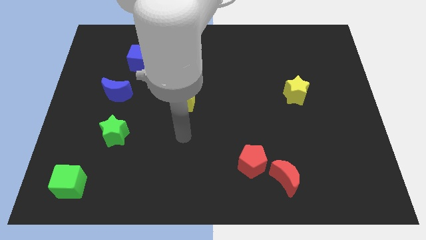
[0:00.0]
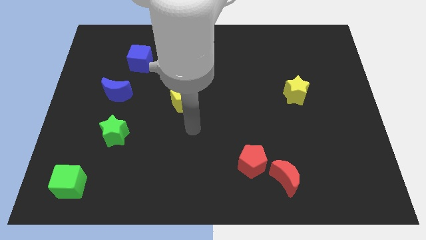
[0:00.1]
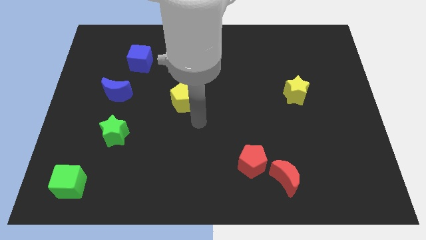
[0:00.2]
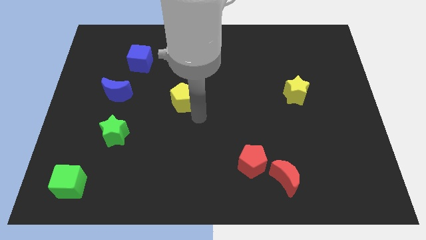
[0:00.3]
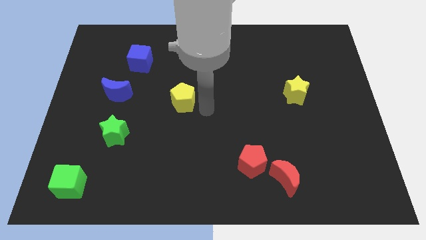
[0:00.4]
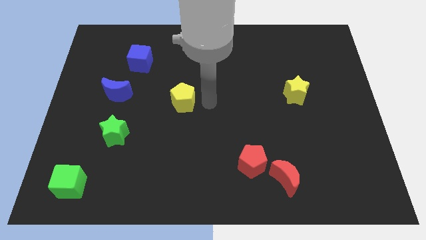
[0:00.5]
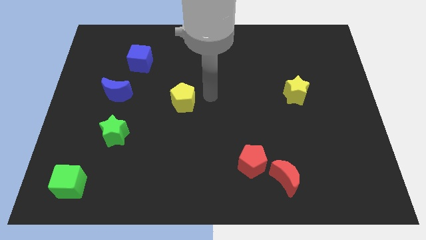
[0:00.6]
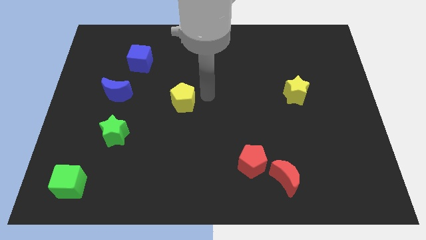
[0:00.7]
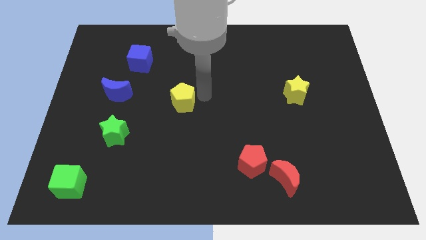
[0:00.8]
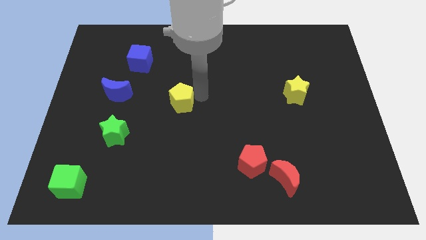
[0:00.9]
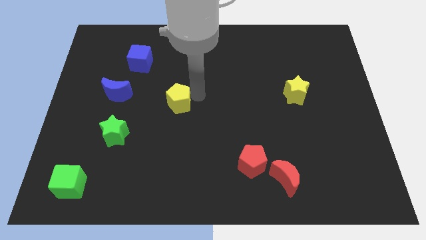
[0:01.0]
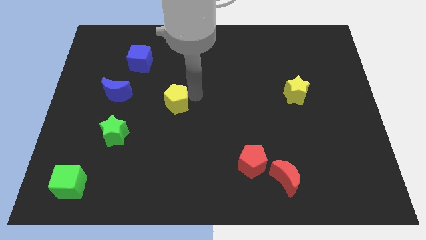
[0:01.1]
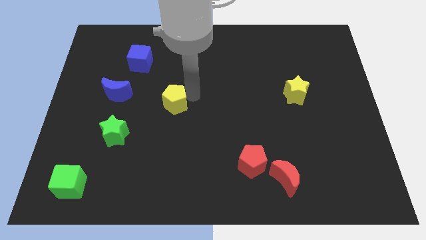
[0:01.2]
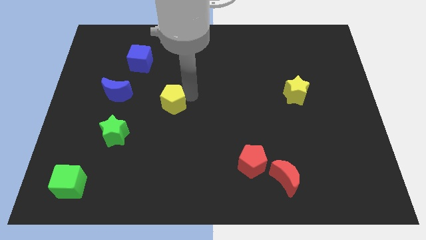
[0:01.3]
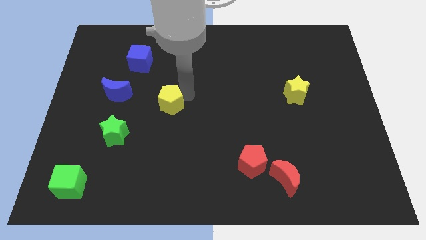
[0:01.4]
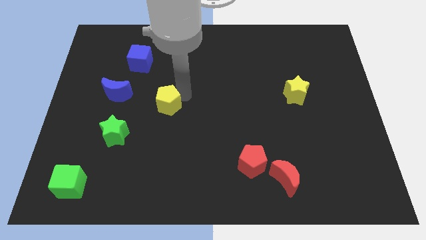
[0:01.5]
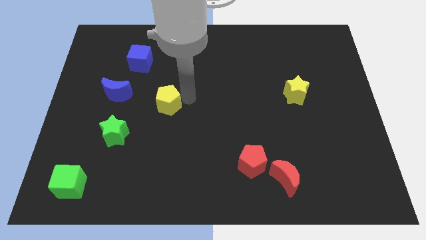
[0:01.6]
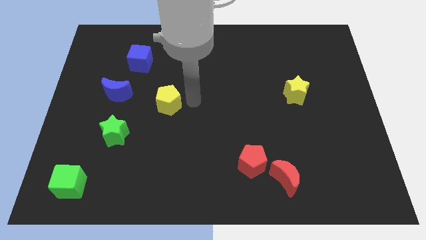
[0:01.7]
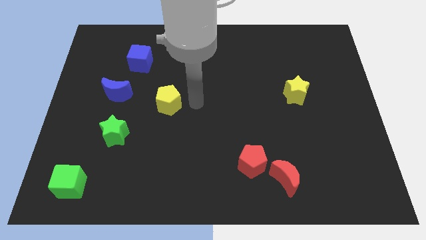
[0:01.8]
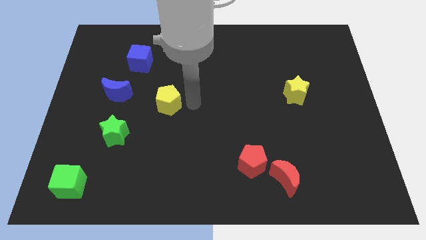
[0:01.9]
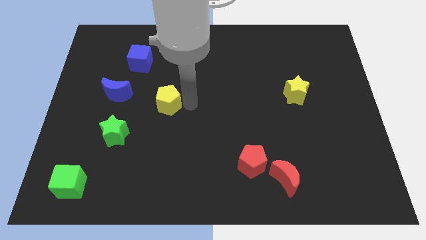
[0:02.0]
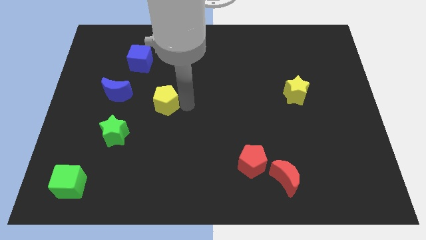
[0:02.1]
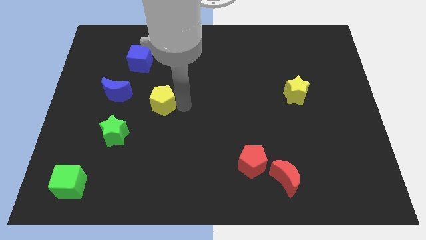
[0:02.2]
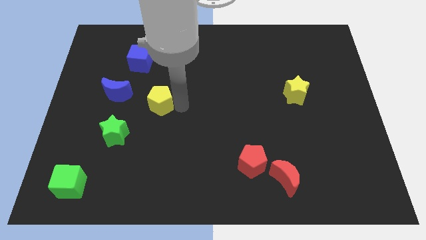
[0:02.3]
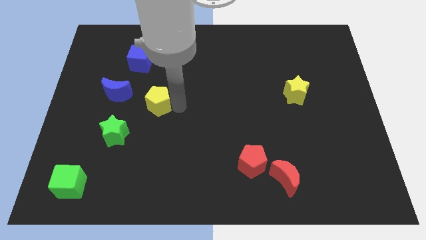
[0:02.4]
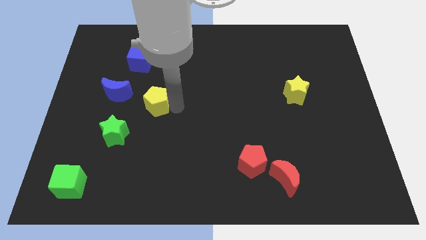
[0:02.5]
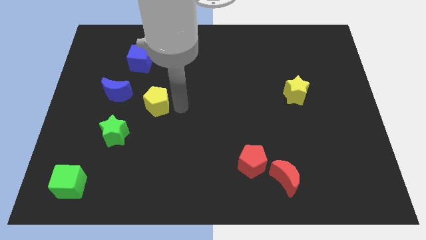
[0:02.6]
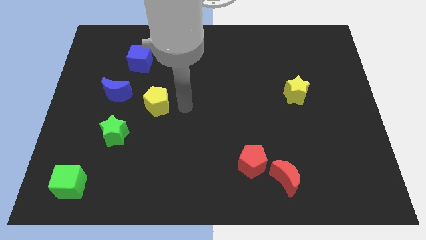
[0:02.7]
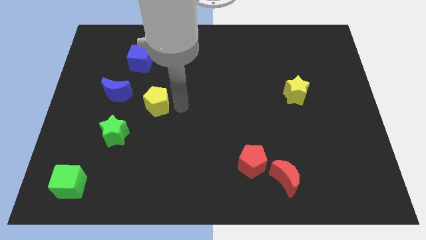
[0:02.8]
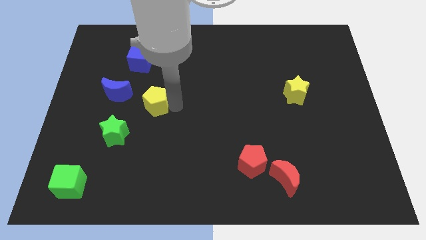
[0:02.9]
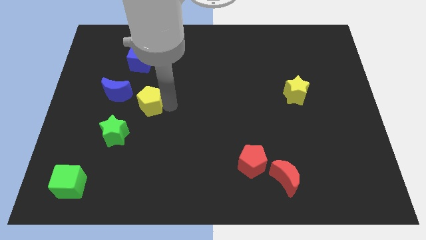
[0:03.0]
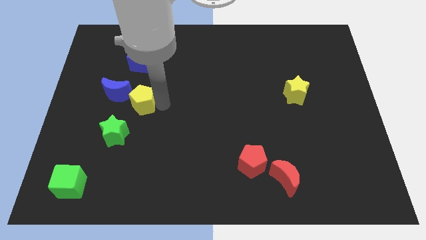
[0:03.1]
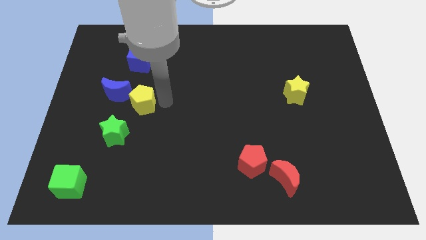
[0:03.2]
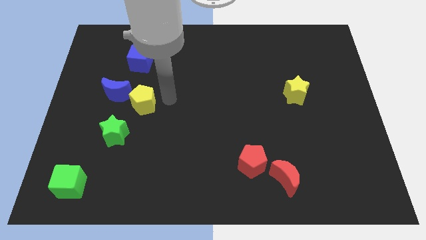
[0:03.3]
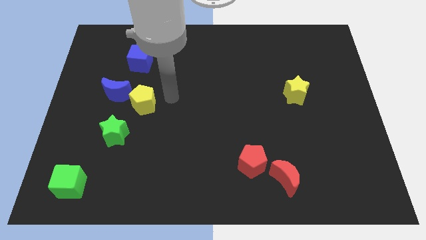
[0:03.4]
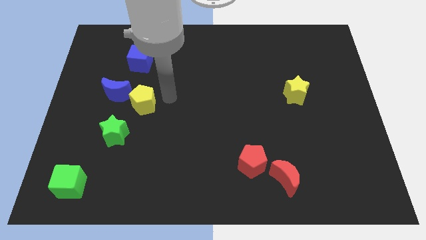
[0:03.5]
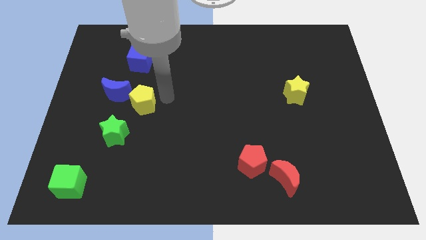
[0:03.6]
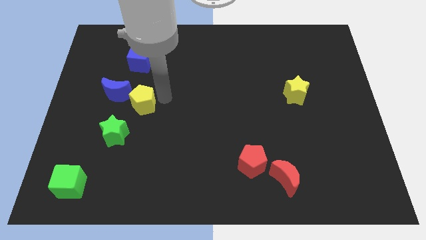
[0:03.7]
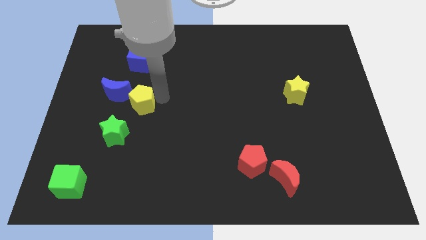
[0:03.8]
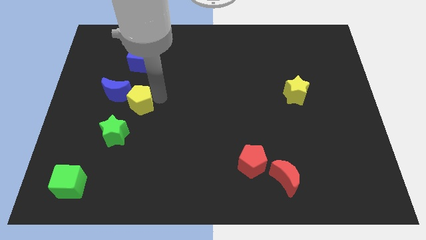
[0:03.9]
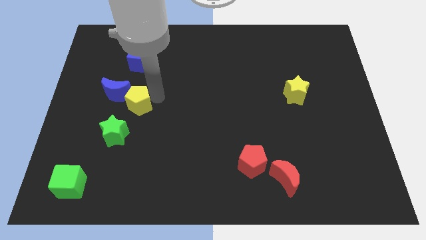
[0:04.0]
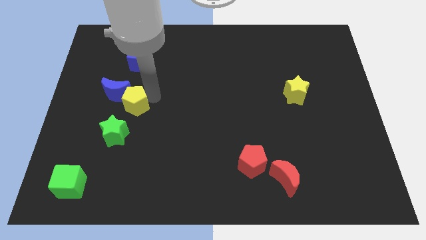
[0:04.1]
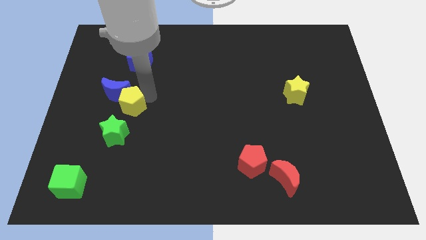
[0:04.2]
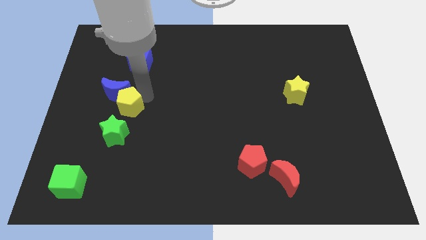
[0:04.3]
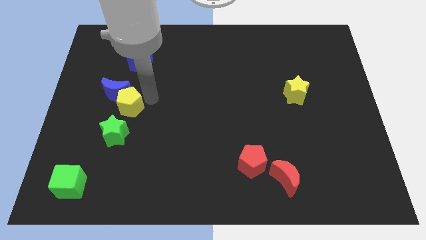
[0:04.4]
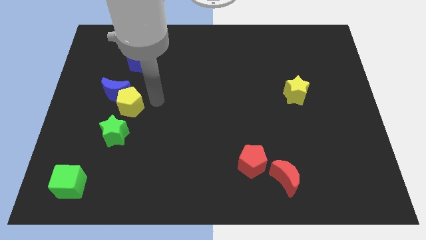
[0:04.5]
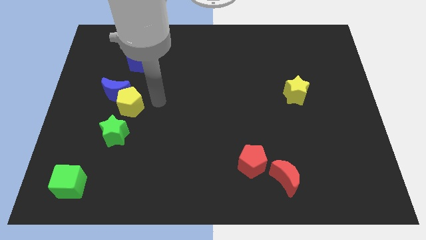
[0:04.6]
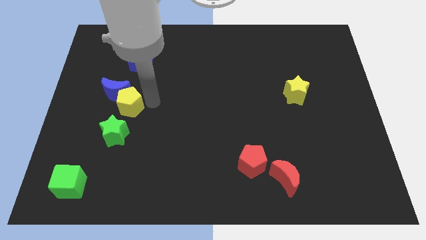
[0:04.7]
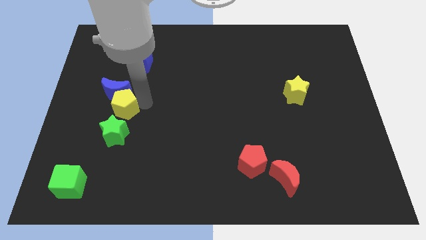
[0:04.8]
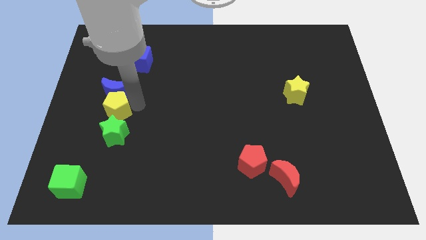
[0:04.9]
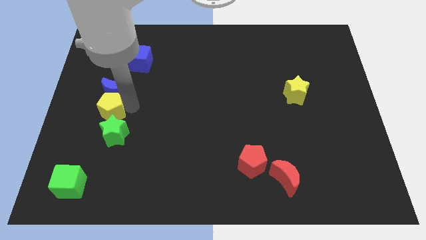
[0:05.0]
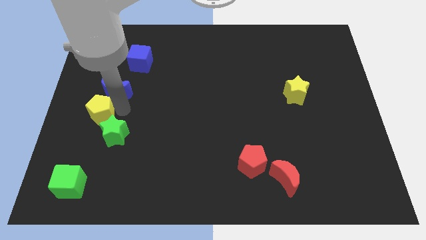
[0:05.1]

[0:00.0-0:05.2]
push the yellow pentagon to the center left

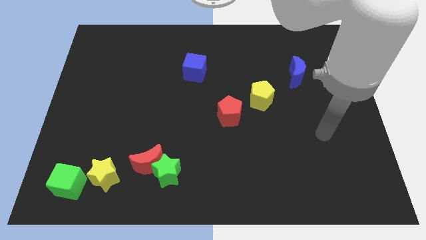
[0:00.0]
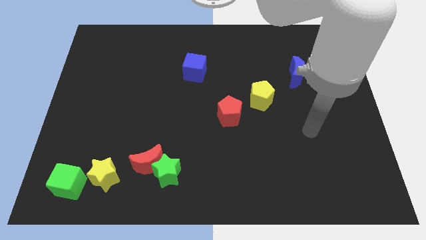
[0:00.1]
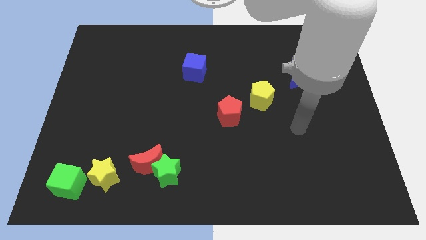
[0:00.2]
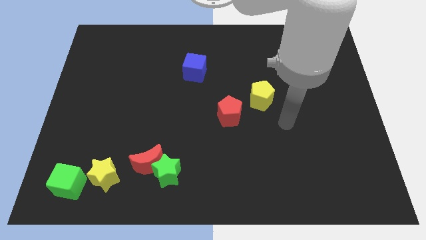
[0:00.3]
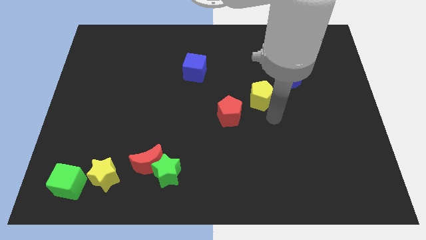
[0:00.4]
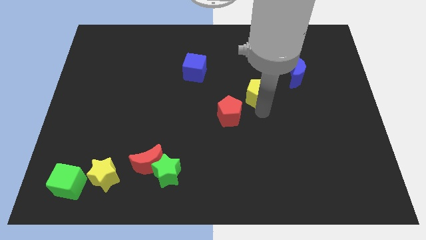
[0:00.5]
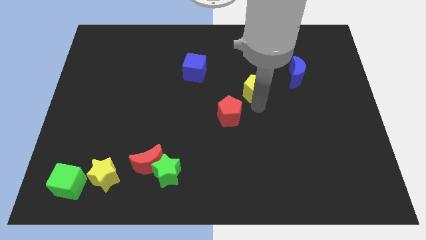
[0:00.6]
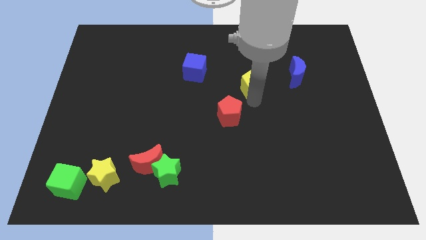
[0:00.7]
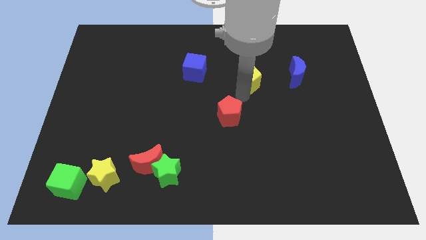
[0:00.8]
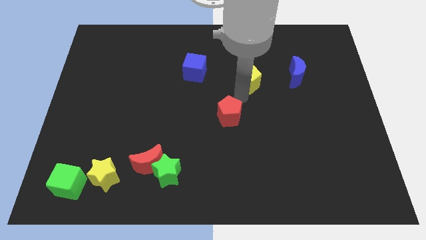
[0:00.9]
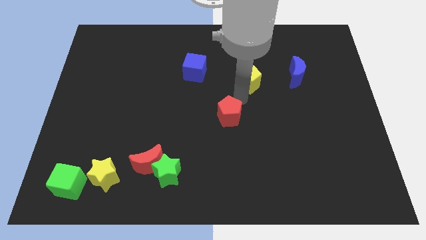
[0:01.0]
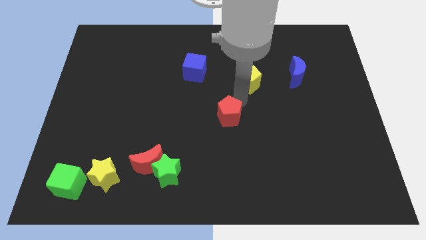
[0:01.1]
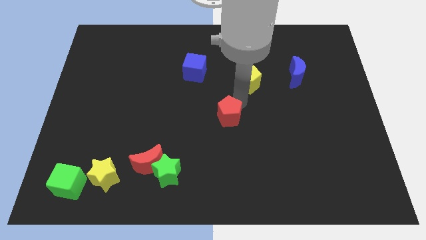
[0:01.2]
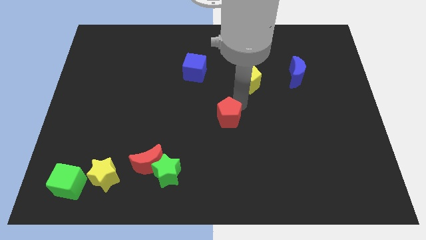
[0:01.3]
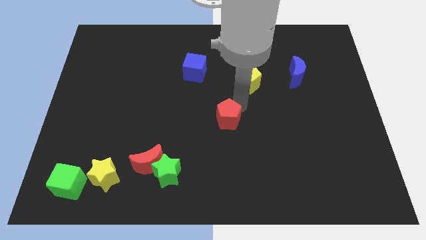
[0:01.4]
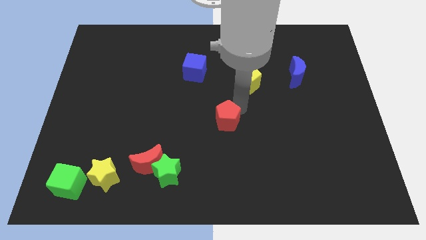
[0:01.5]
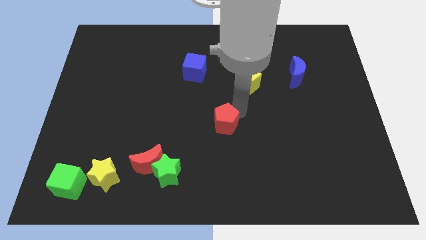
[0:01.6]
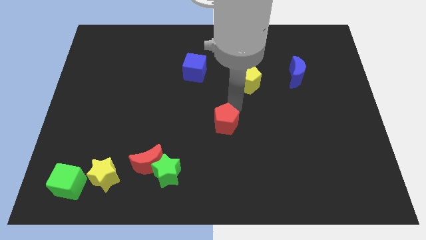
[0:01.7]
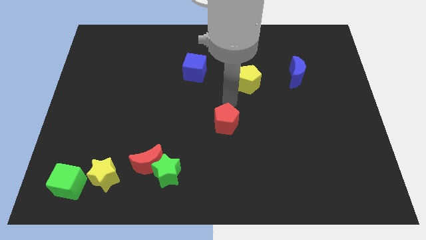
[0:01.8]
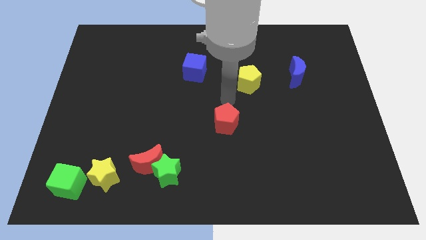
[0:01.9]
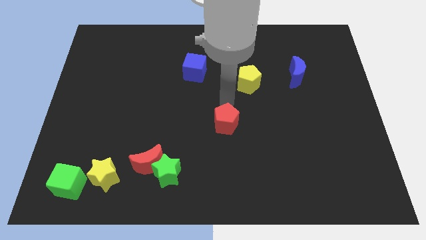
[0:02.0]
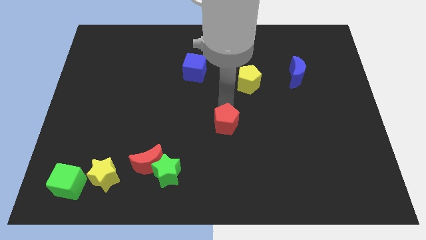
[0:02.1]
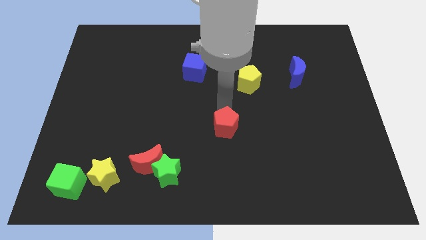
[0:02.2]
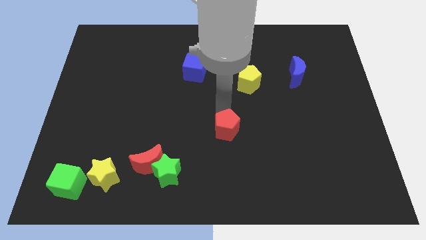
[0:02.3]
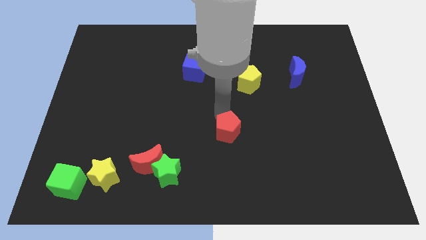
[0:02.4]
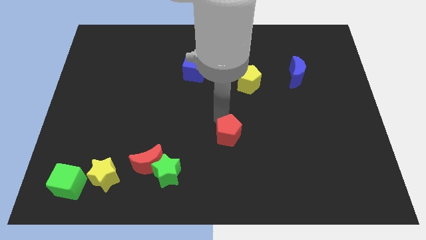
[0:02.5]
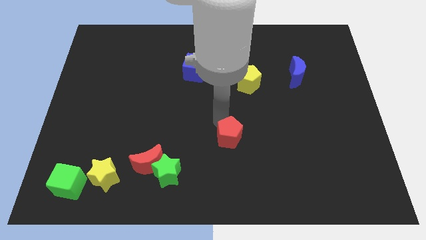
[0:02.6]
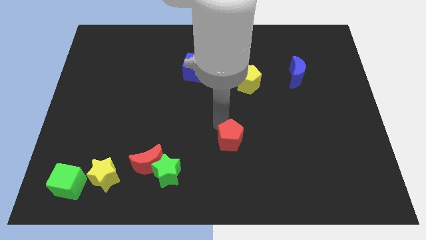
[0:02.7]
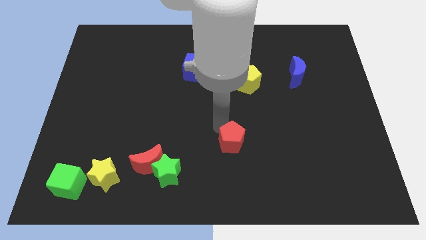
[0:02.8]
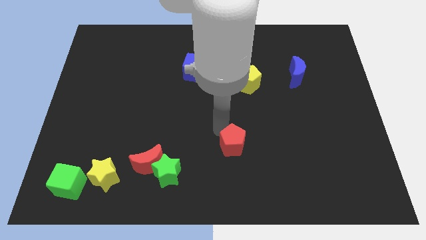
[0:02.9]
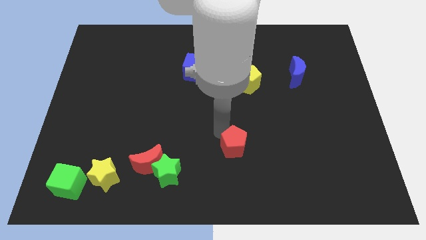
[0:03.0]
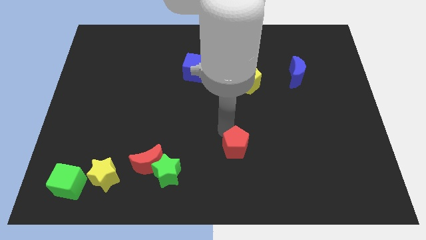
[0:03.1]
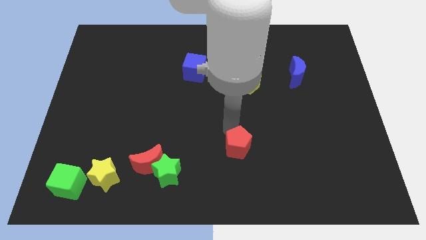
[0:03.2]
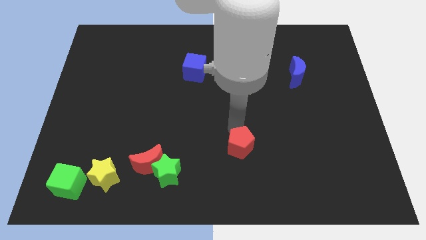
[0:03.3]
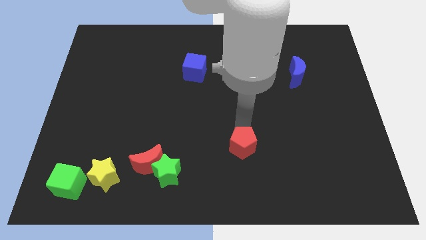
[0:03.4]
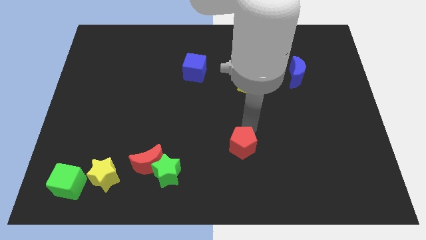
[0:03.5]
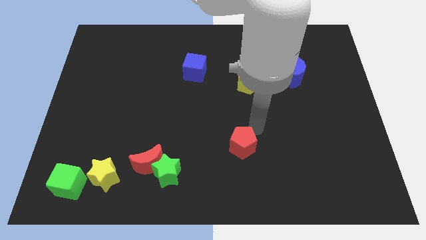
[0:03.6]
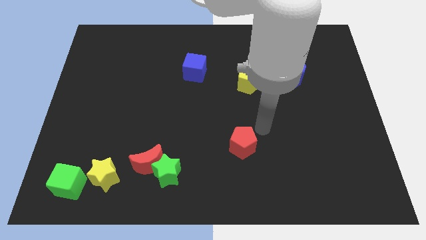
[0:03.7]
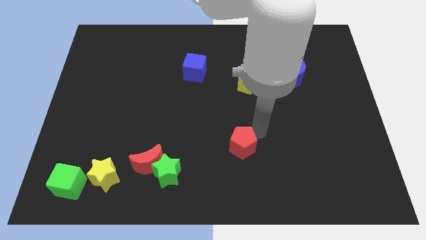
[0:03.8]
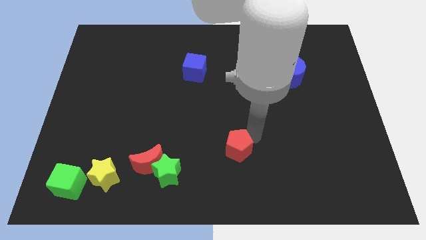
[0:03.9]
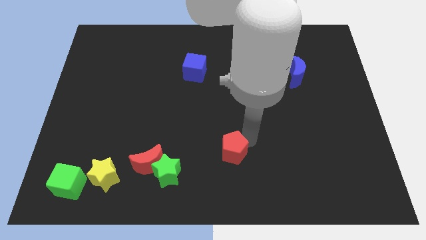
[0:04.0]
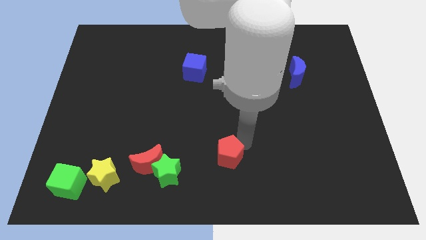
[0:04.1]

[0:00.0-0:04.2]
slide the red pentagon to the bottom
